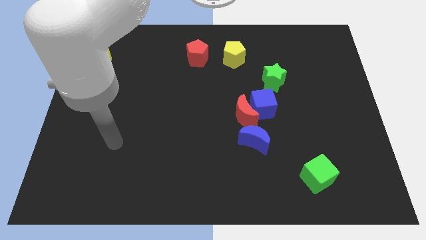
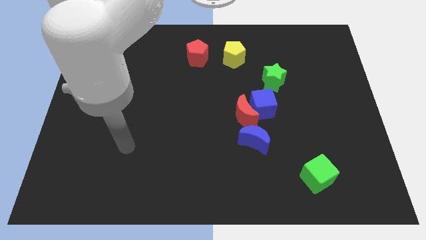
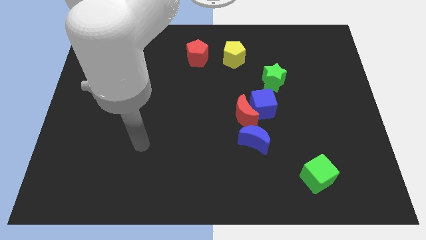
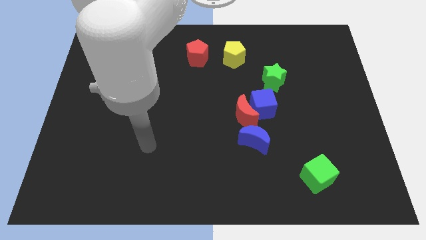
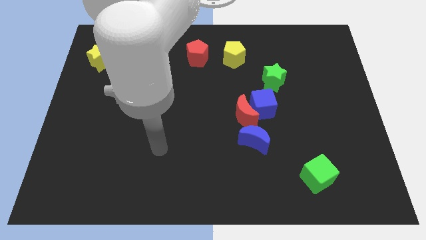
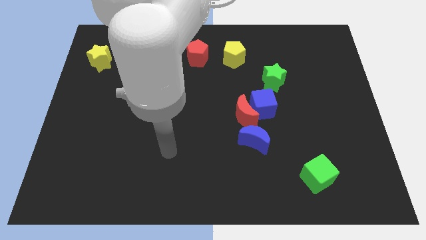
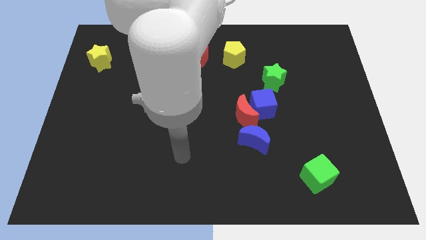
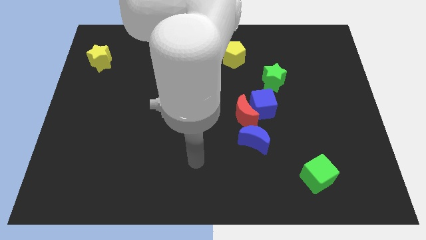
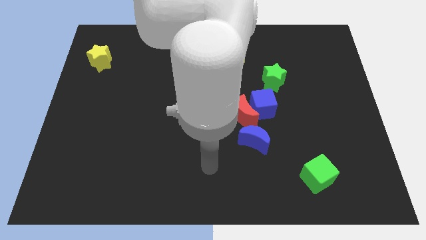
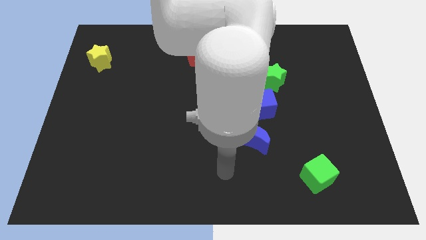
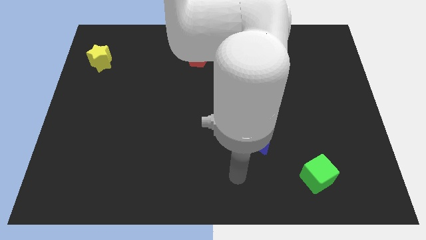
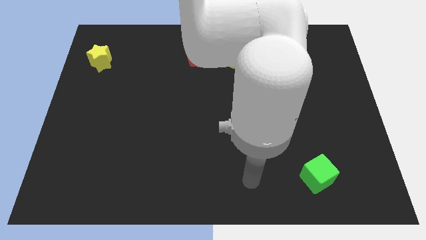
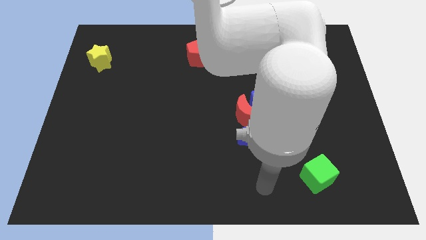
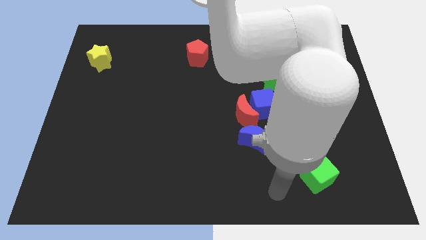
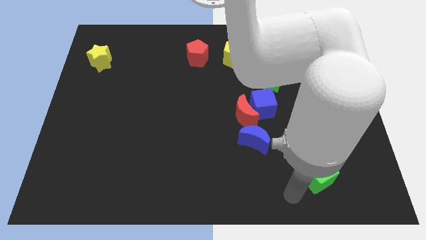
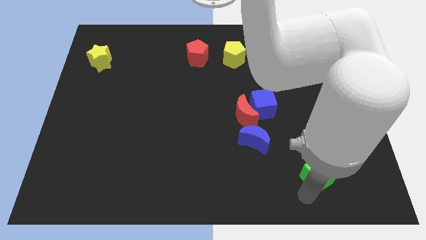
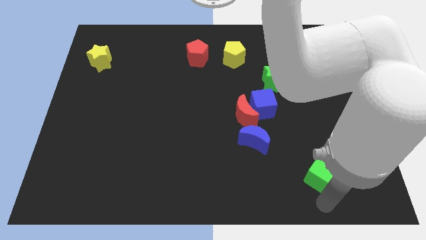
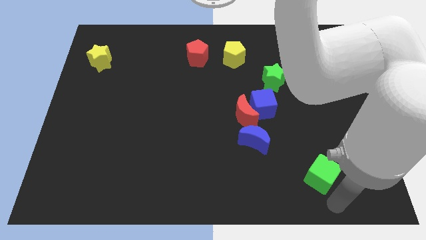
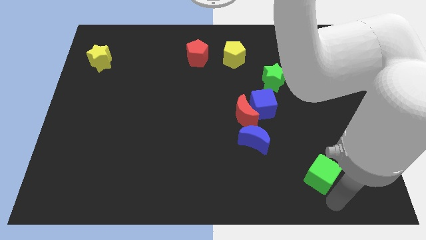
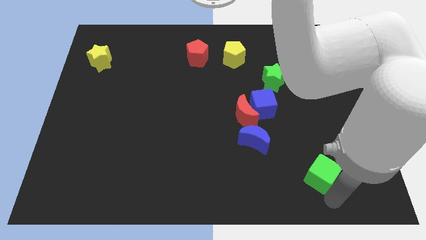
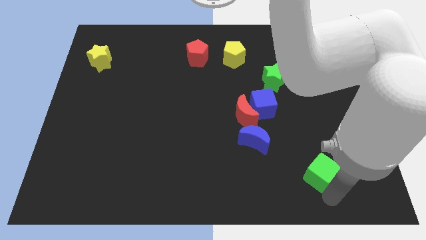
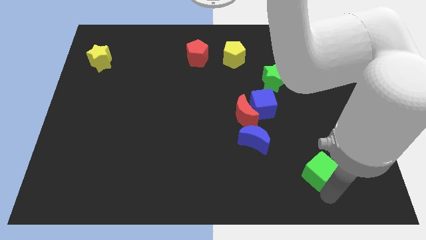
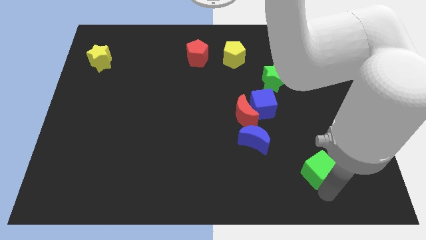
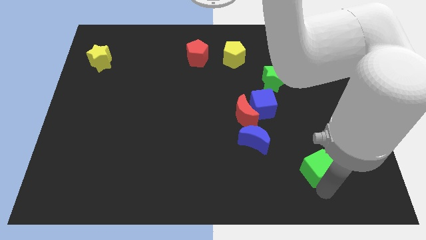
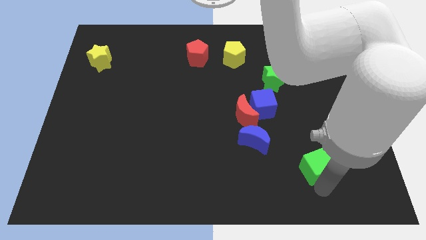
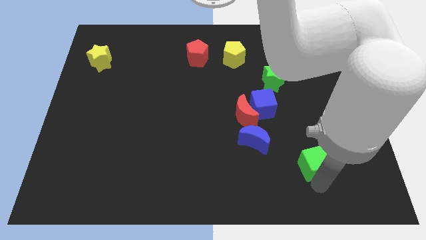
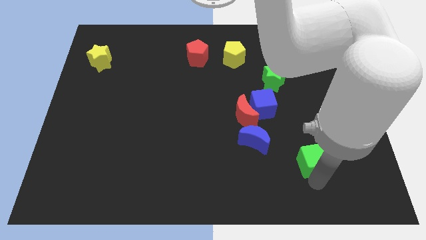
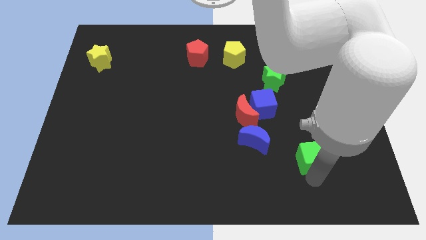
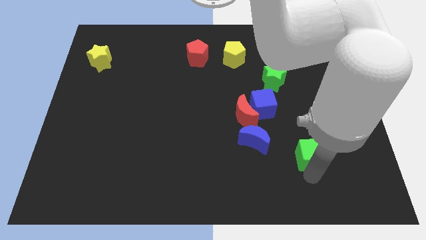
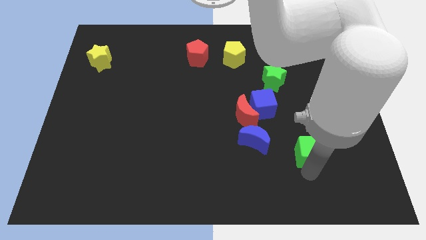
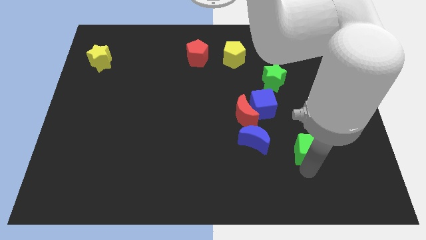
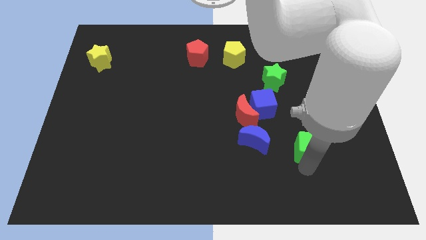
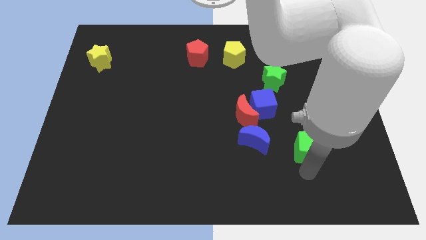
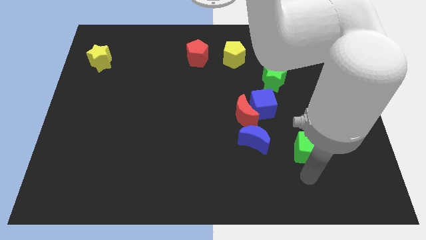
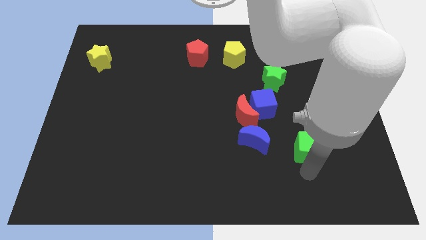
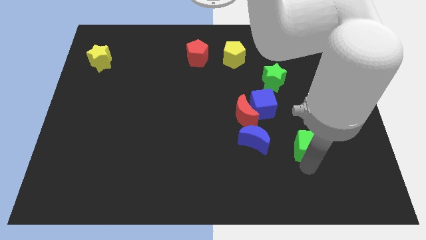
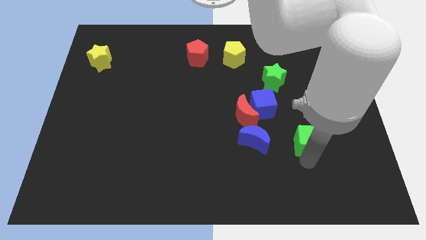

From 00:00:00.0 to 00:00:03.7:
push the green cube a little bit up

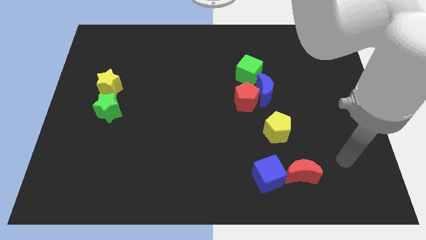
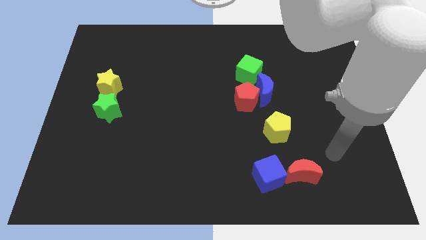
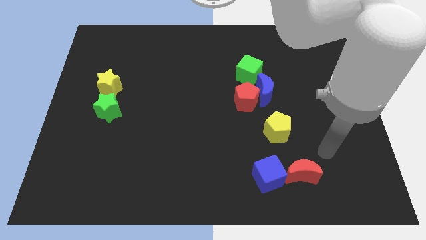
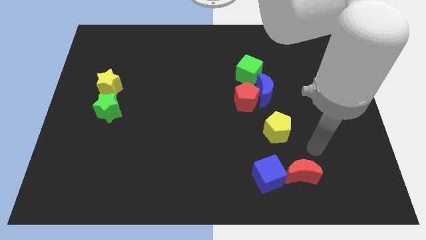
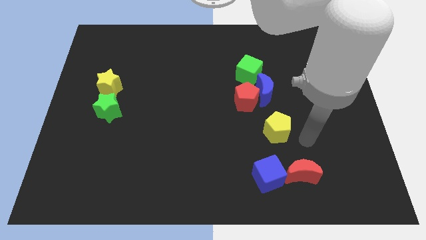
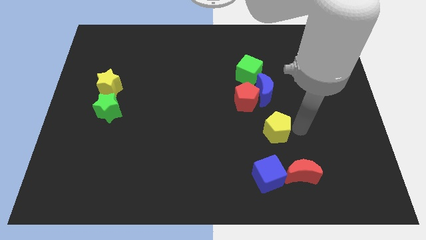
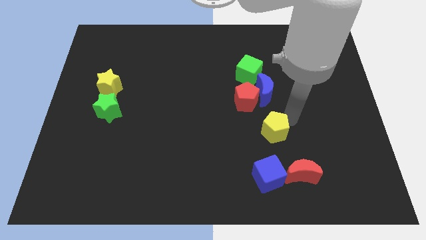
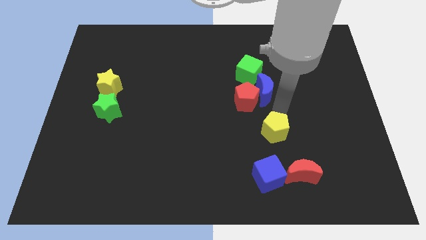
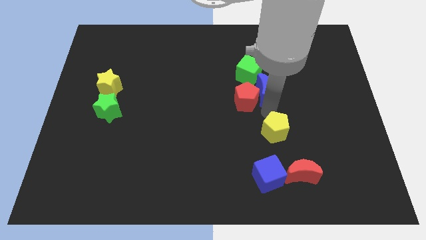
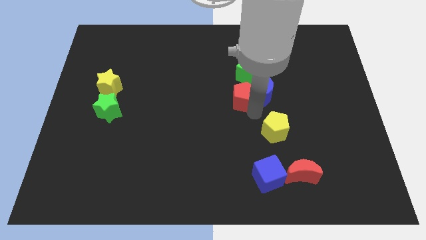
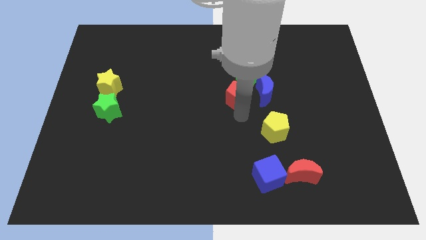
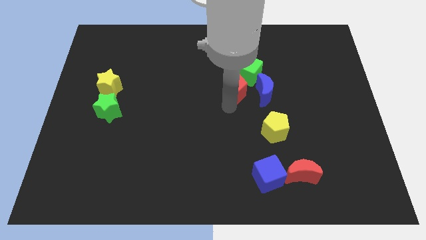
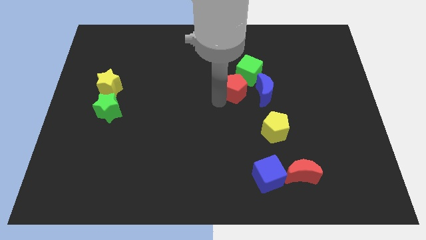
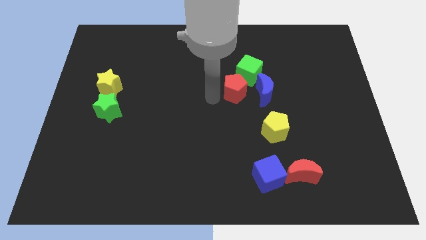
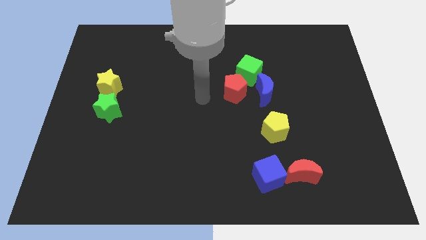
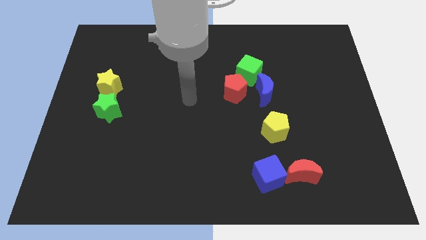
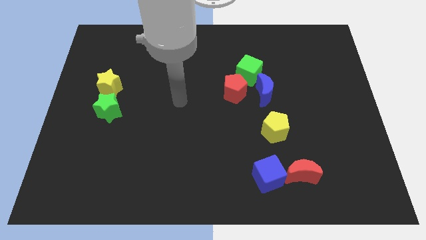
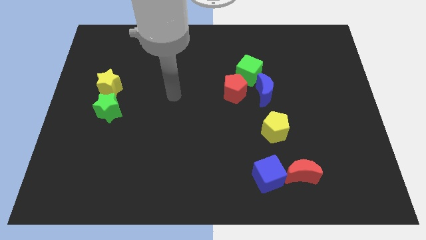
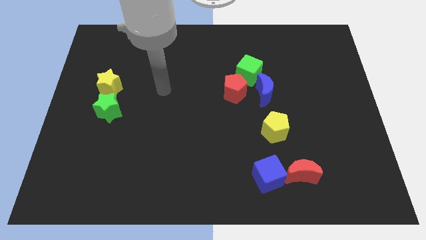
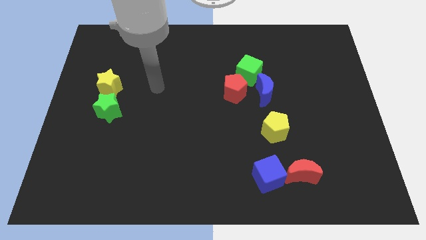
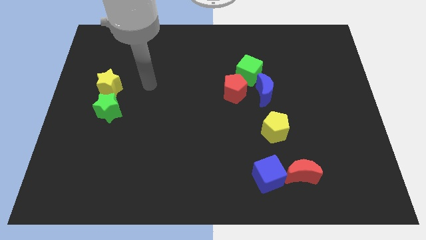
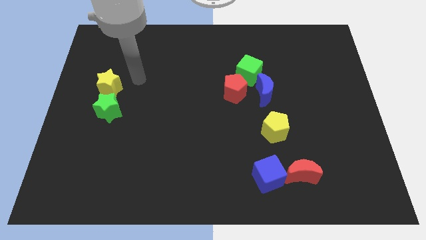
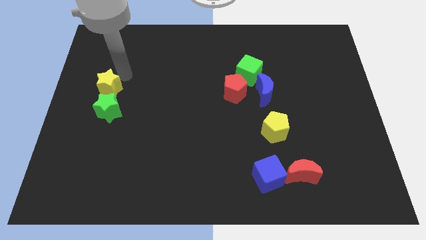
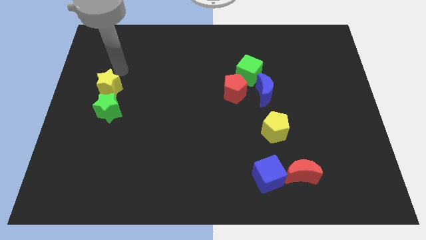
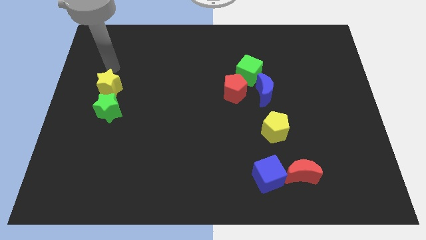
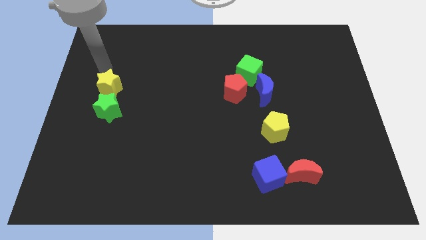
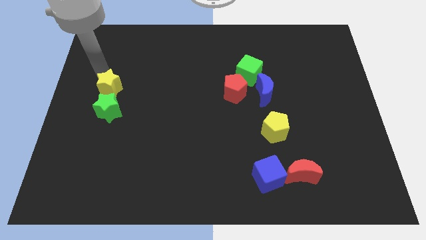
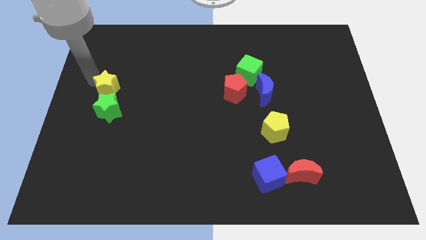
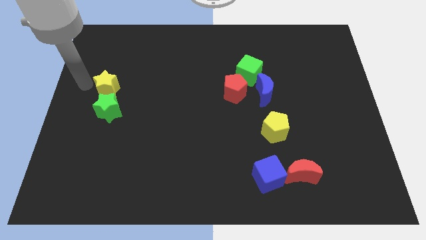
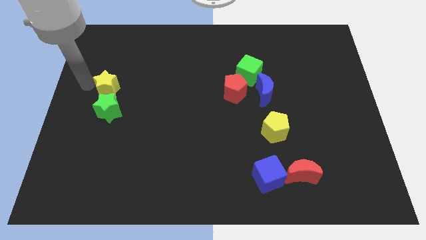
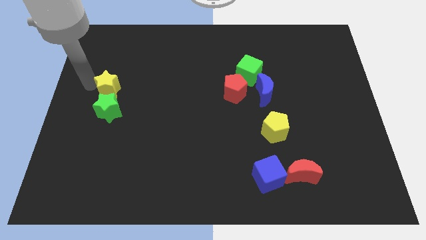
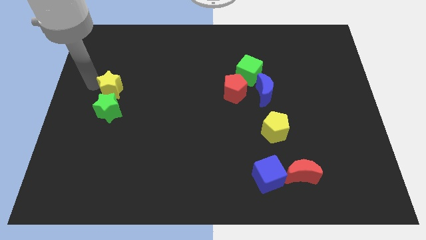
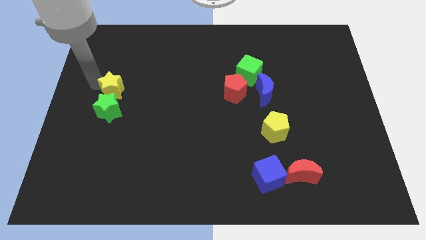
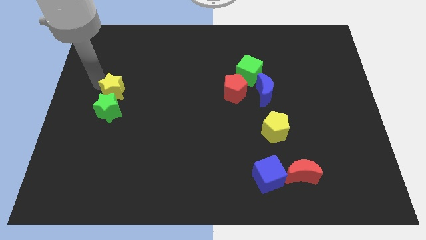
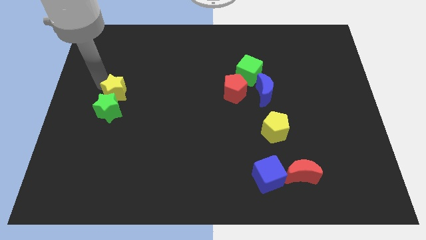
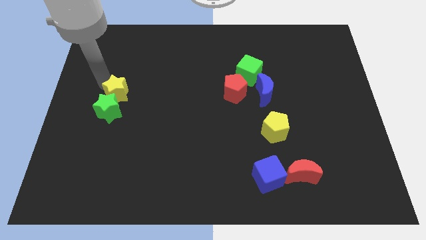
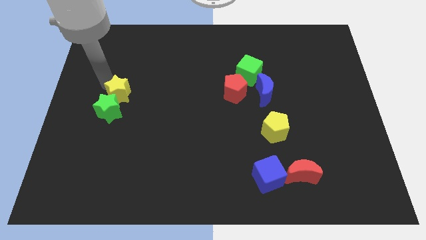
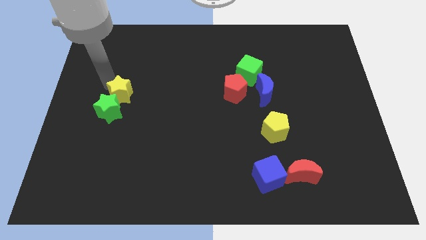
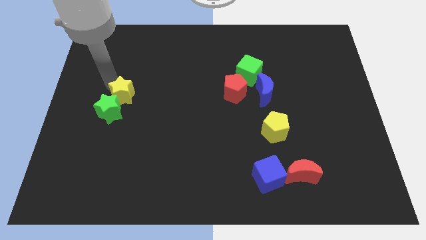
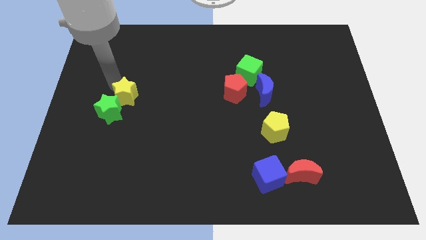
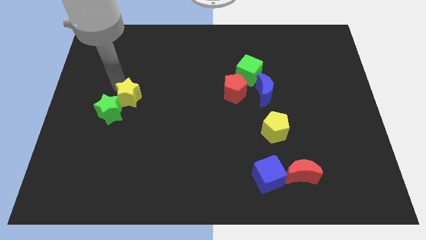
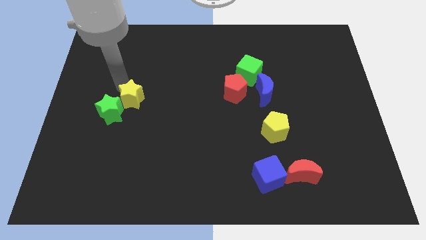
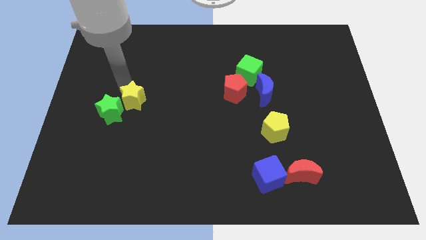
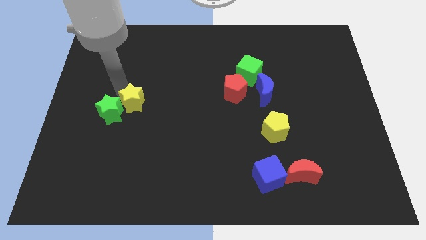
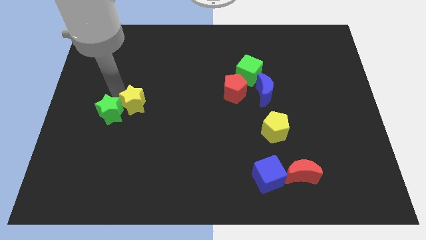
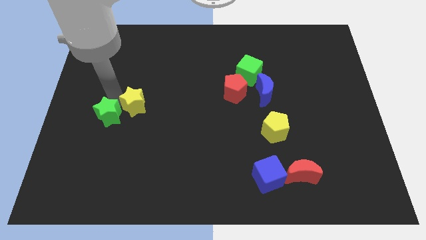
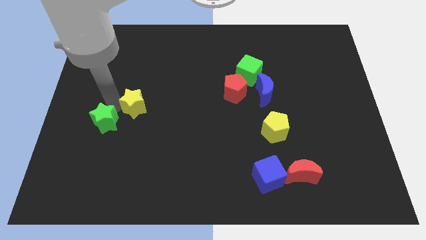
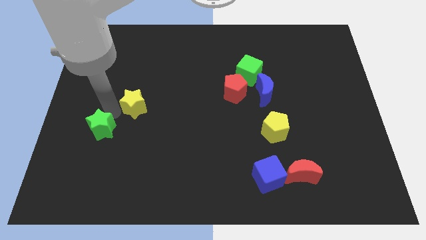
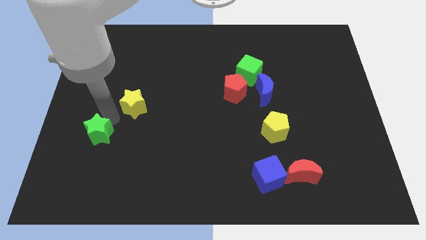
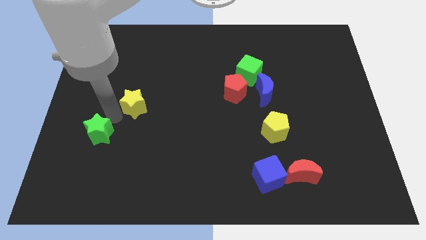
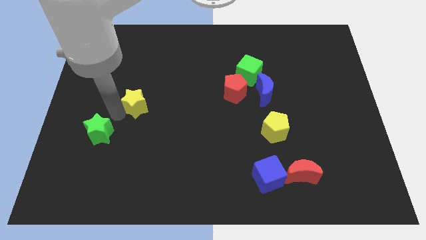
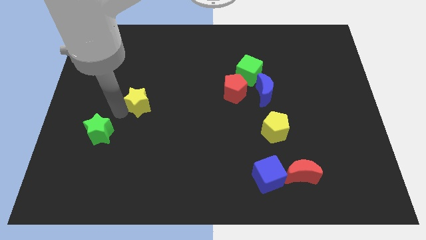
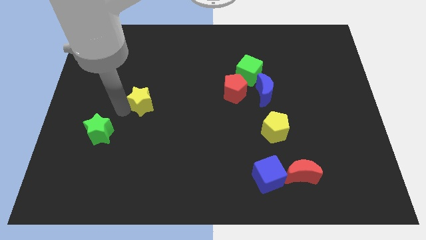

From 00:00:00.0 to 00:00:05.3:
move the yellow star a little bit right
